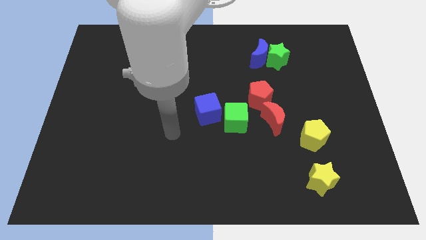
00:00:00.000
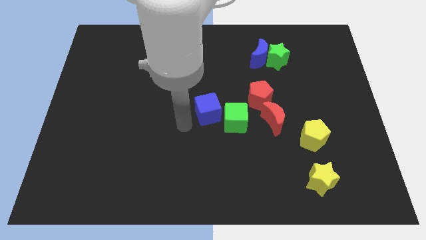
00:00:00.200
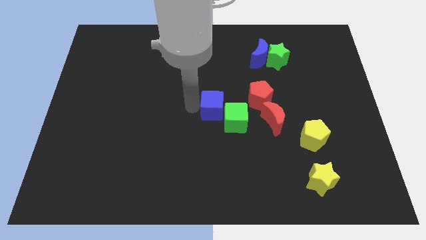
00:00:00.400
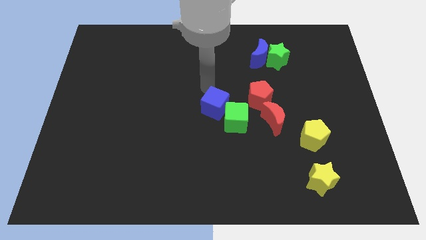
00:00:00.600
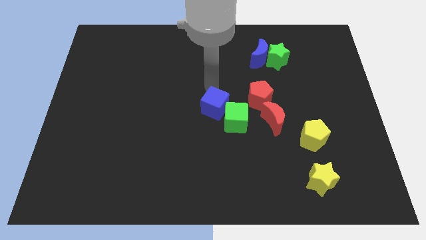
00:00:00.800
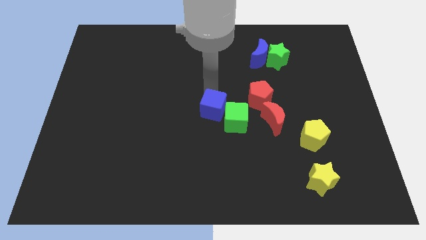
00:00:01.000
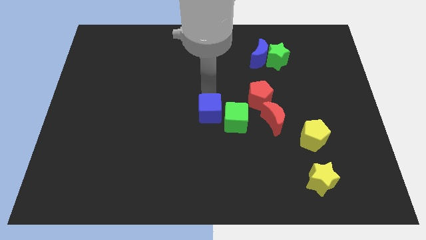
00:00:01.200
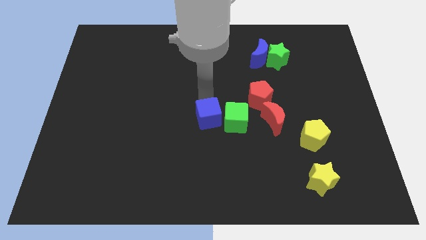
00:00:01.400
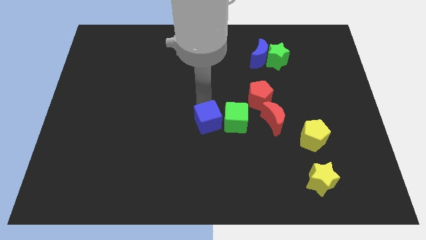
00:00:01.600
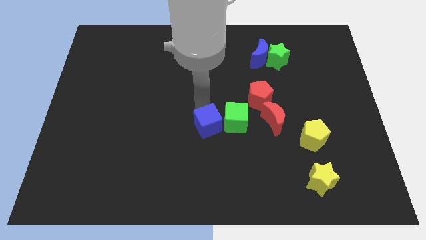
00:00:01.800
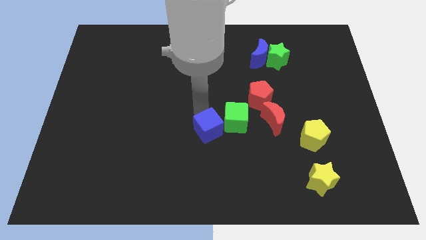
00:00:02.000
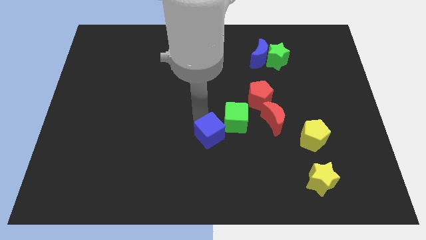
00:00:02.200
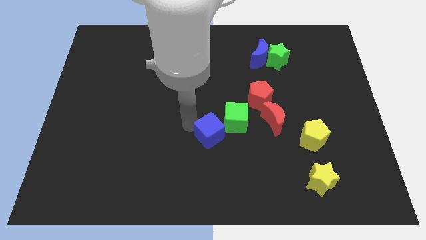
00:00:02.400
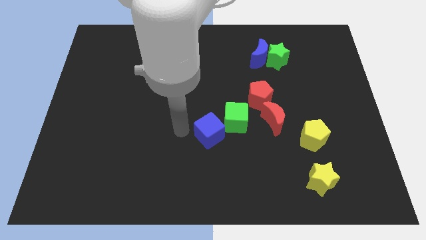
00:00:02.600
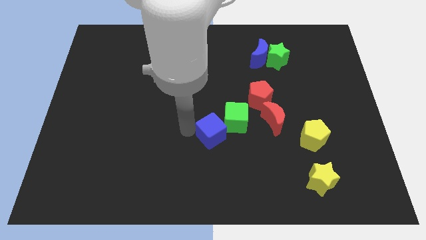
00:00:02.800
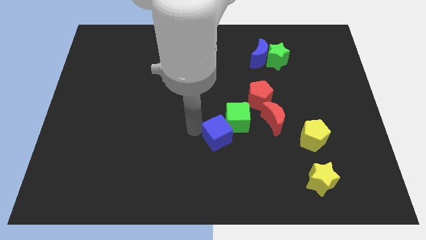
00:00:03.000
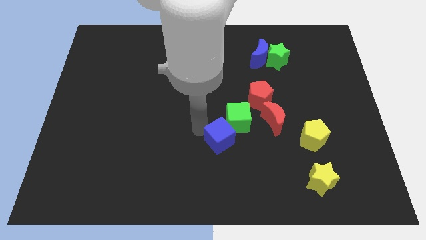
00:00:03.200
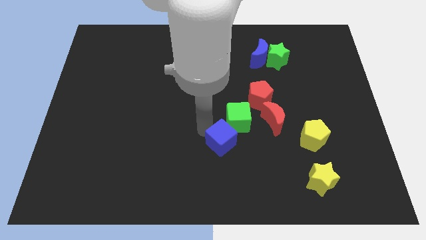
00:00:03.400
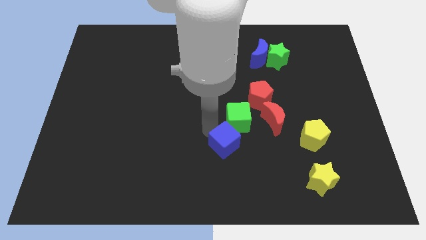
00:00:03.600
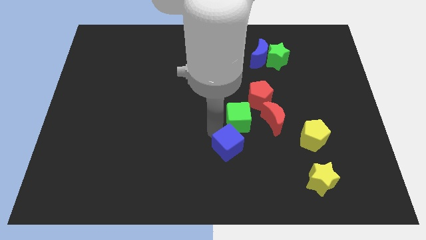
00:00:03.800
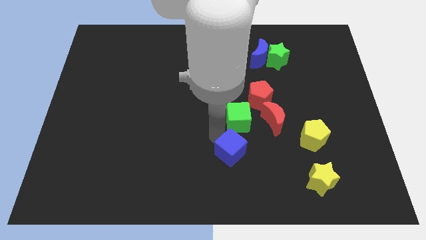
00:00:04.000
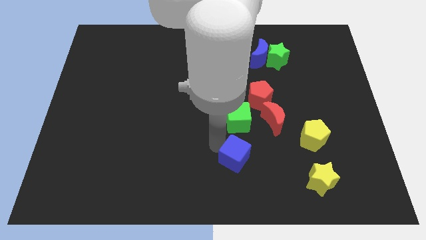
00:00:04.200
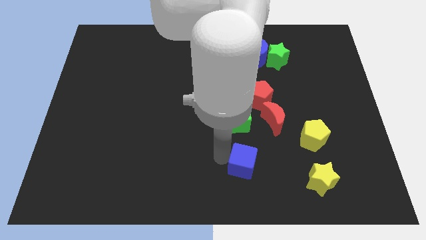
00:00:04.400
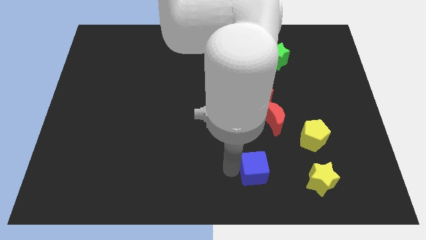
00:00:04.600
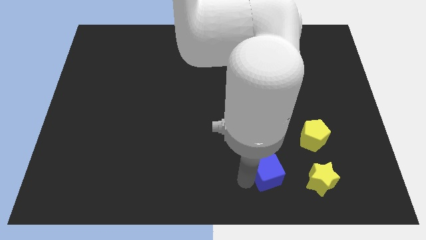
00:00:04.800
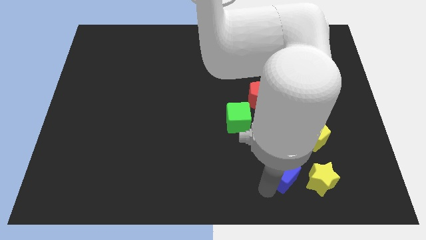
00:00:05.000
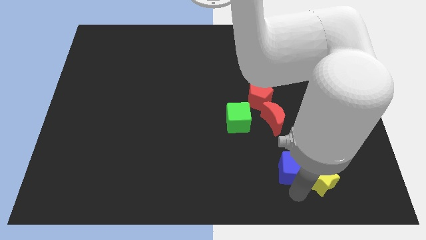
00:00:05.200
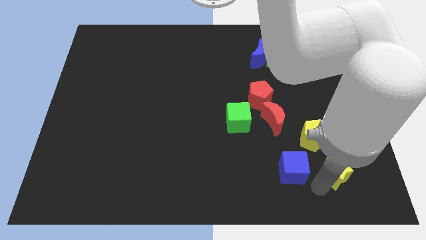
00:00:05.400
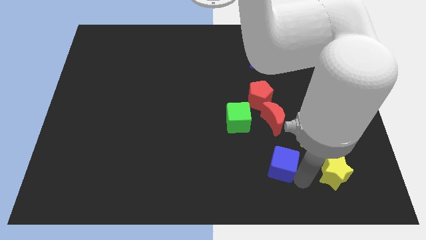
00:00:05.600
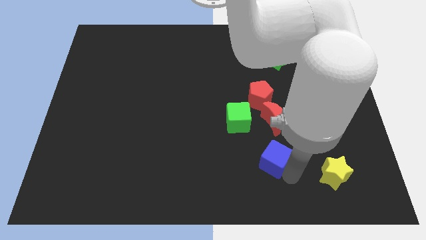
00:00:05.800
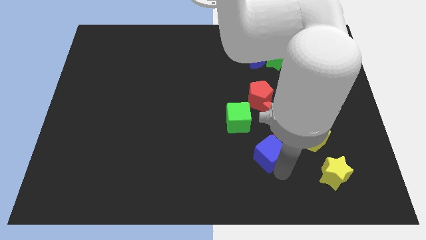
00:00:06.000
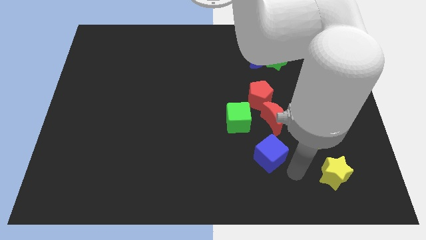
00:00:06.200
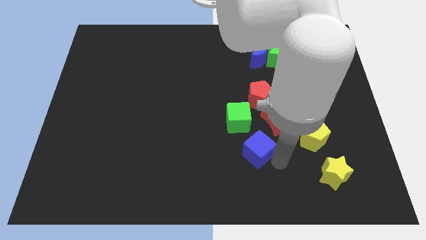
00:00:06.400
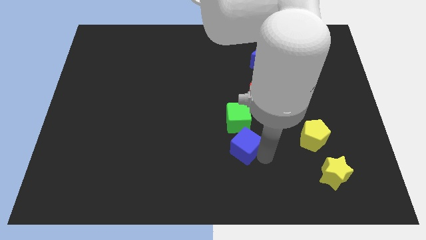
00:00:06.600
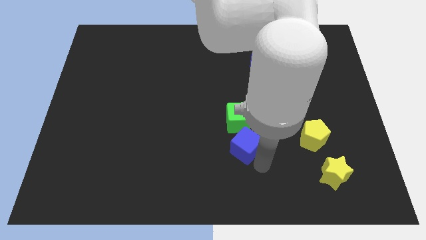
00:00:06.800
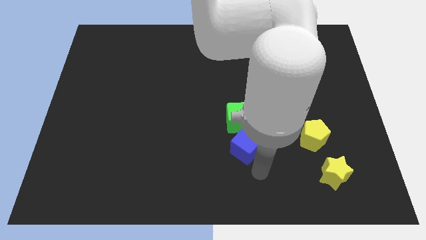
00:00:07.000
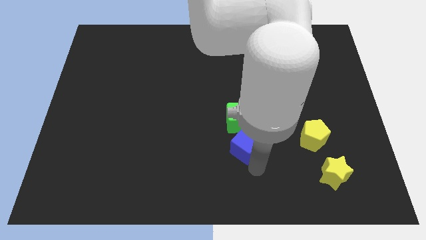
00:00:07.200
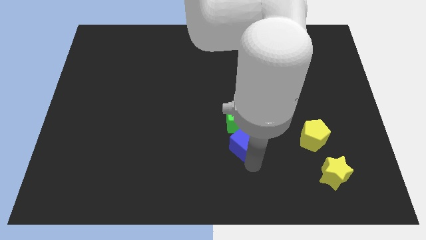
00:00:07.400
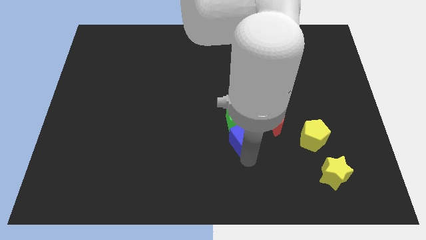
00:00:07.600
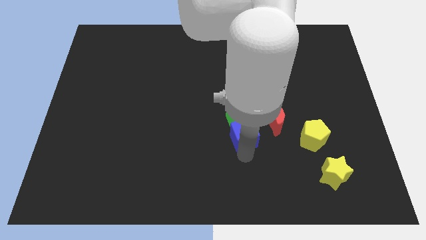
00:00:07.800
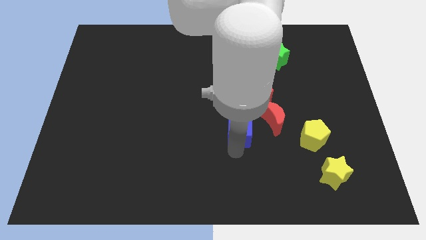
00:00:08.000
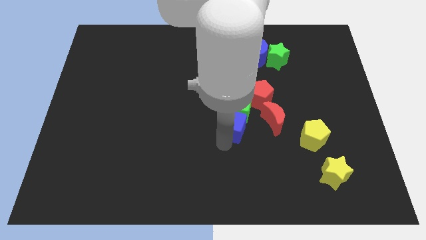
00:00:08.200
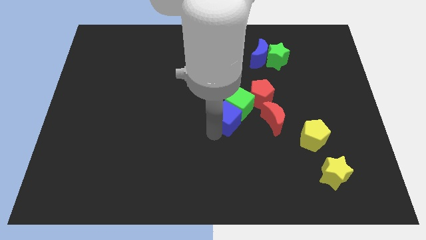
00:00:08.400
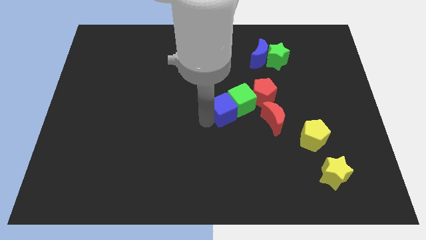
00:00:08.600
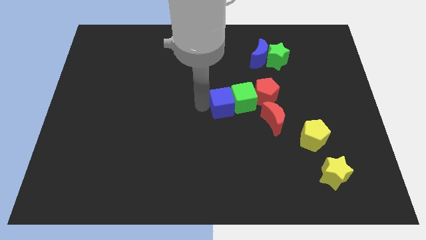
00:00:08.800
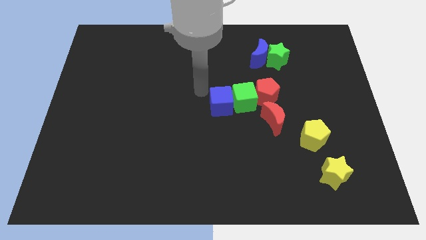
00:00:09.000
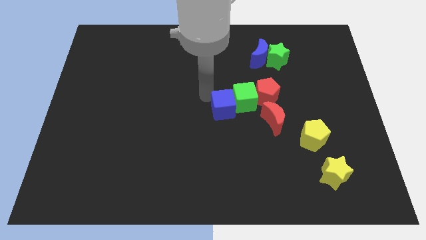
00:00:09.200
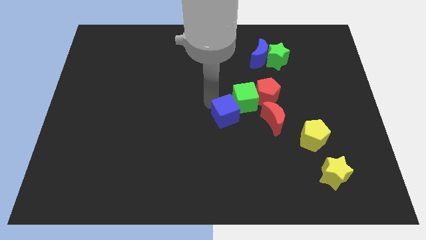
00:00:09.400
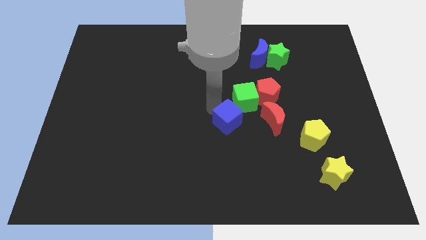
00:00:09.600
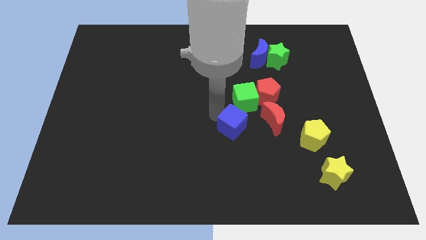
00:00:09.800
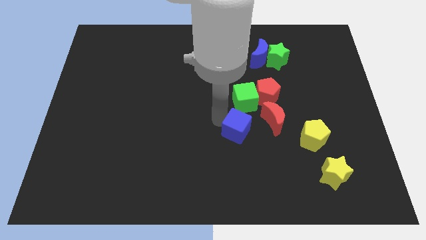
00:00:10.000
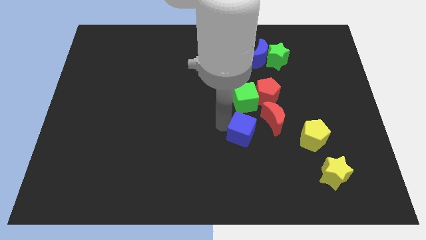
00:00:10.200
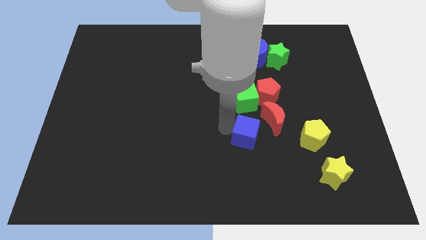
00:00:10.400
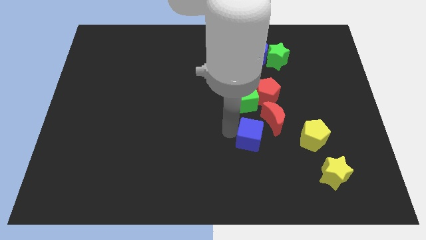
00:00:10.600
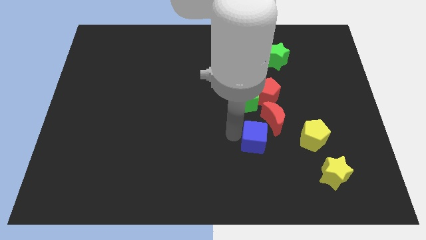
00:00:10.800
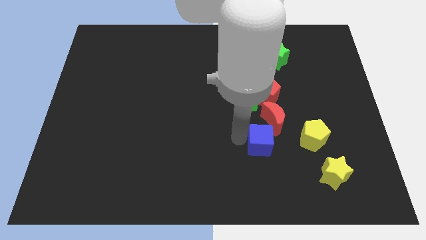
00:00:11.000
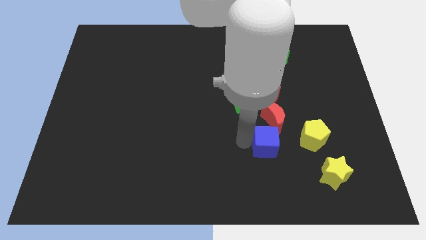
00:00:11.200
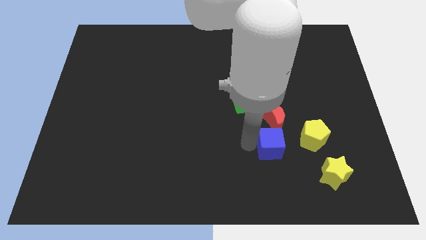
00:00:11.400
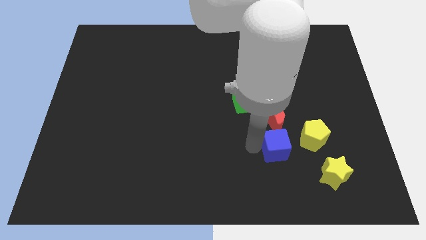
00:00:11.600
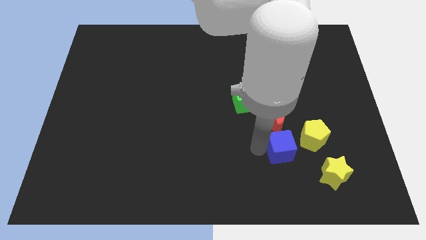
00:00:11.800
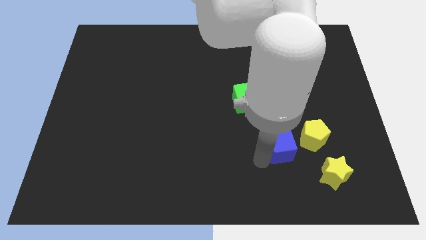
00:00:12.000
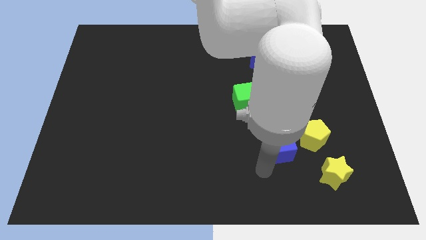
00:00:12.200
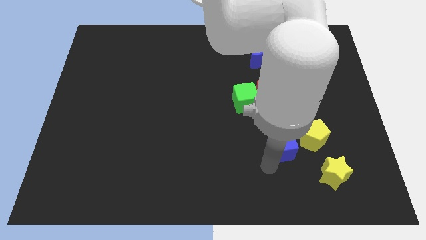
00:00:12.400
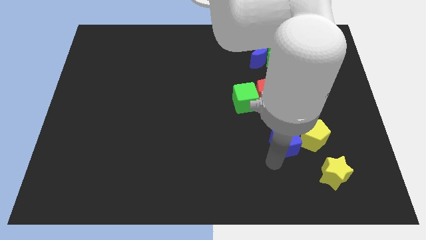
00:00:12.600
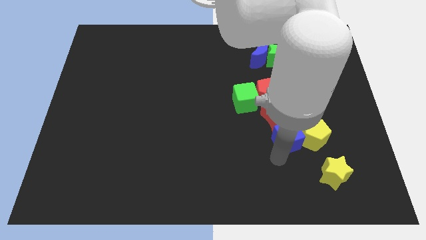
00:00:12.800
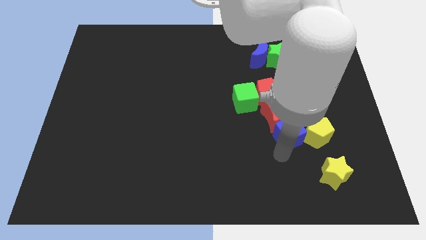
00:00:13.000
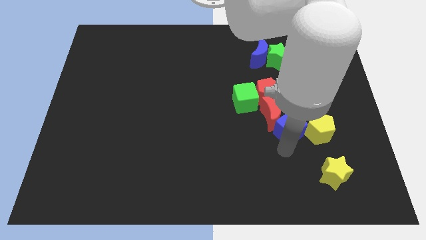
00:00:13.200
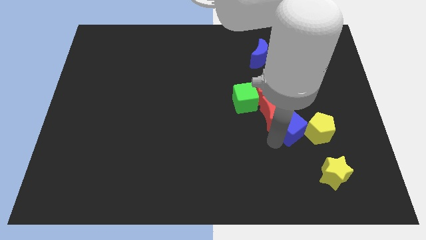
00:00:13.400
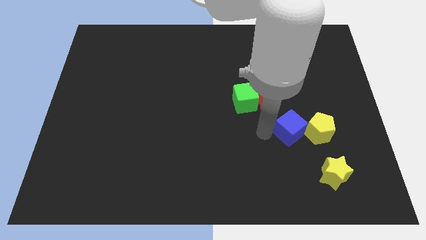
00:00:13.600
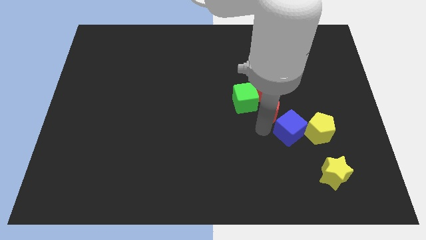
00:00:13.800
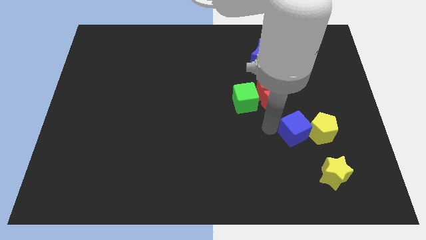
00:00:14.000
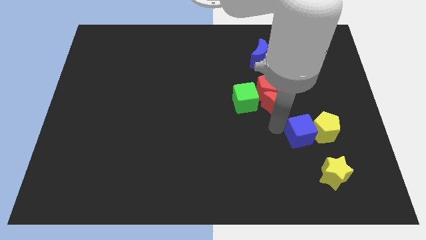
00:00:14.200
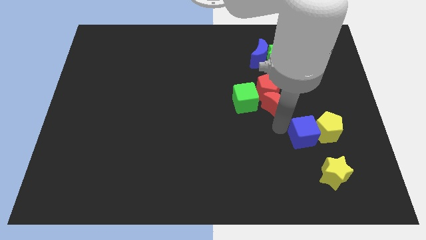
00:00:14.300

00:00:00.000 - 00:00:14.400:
move the blue cube above the yellow star
